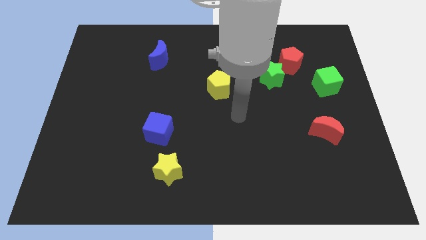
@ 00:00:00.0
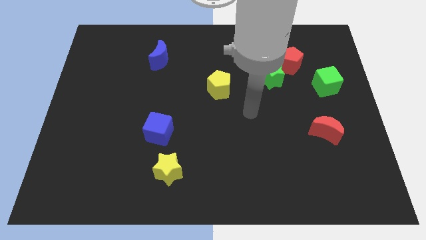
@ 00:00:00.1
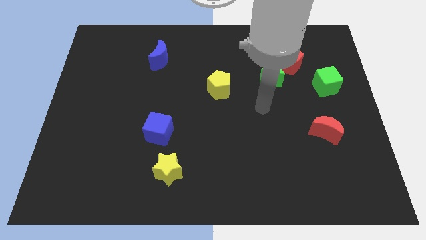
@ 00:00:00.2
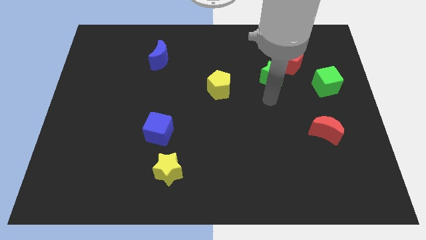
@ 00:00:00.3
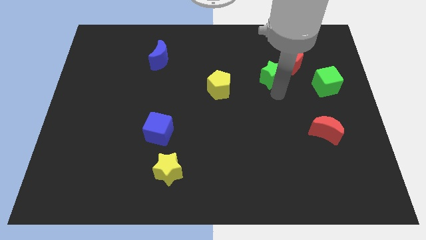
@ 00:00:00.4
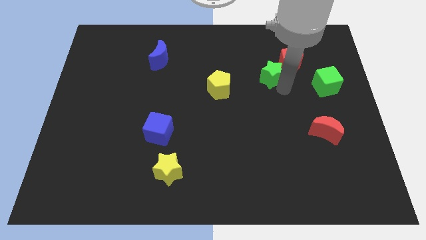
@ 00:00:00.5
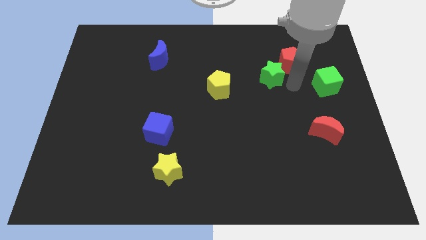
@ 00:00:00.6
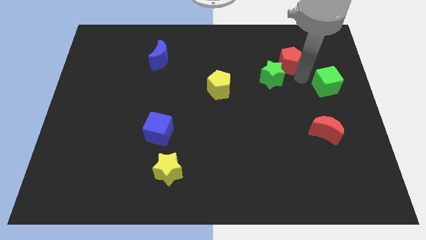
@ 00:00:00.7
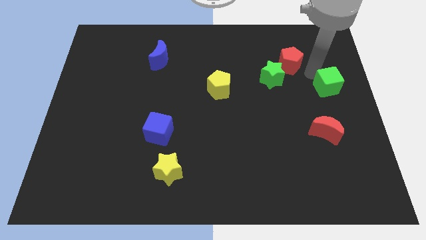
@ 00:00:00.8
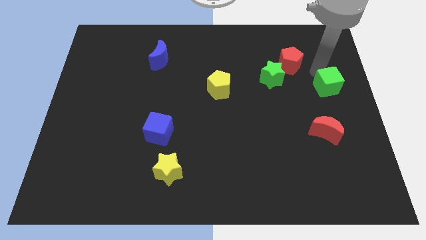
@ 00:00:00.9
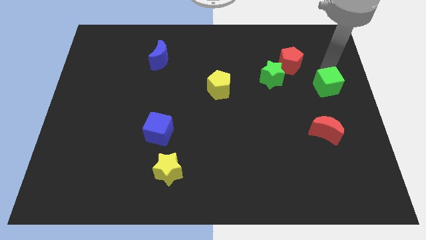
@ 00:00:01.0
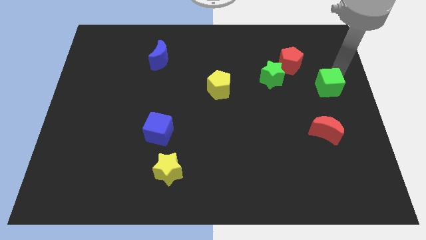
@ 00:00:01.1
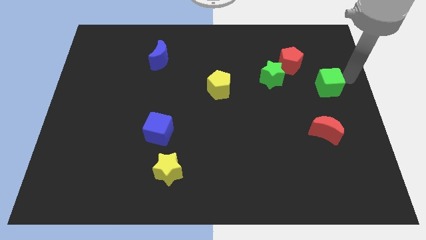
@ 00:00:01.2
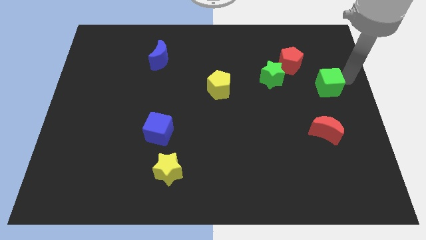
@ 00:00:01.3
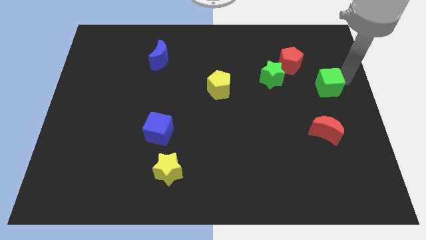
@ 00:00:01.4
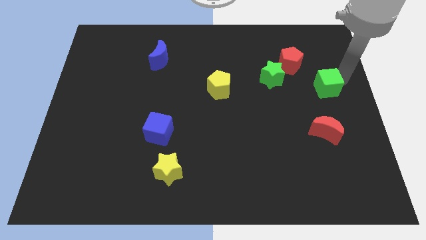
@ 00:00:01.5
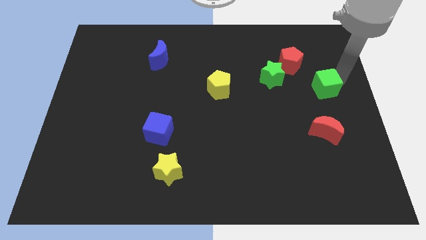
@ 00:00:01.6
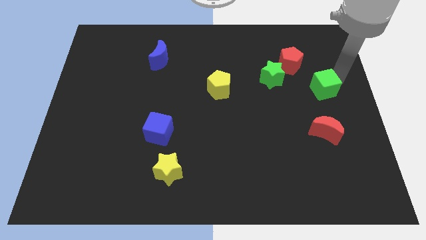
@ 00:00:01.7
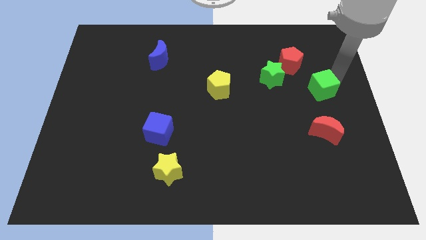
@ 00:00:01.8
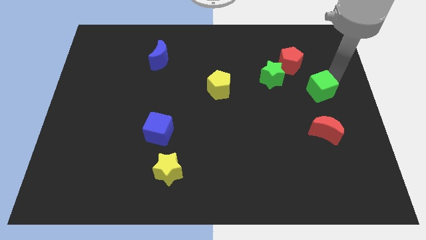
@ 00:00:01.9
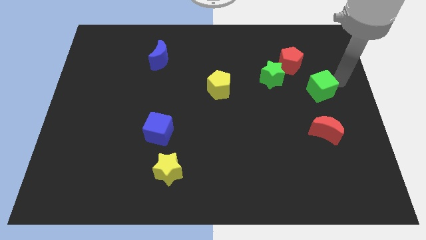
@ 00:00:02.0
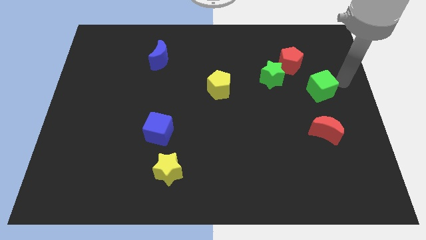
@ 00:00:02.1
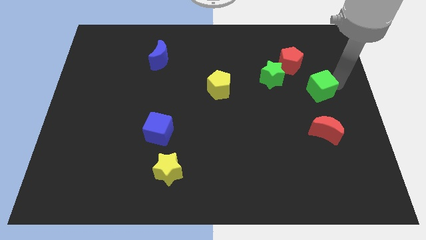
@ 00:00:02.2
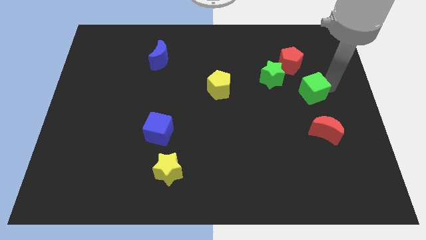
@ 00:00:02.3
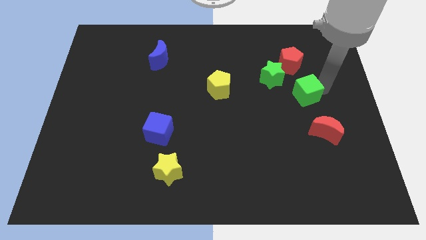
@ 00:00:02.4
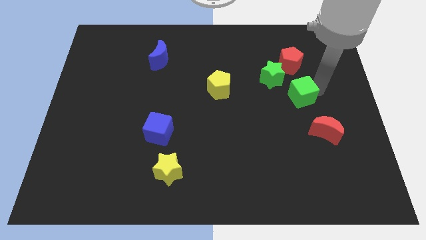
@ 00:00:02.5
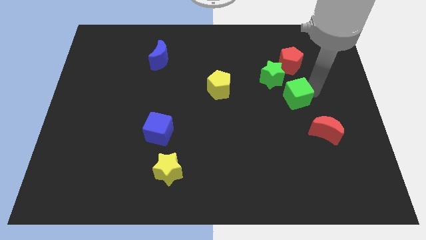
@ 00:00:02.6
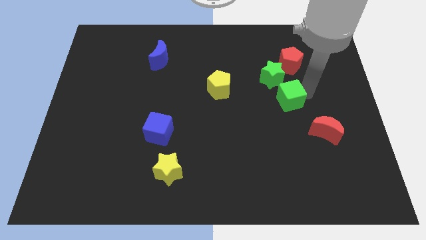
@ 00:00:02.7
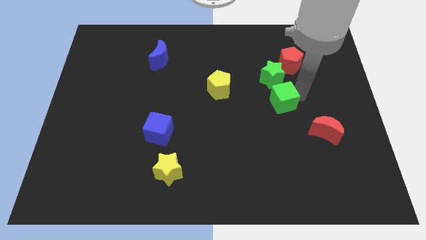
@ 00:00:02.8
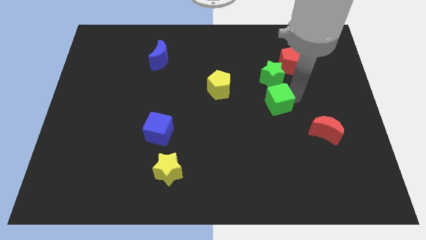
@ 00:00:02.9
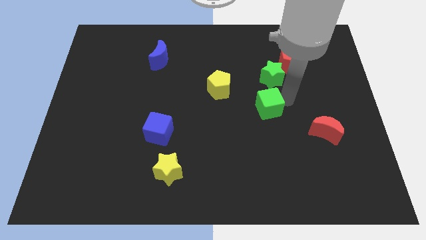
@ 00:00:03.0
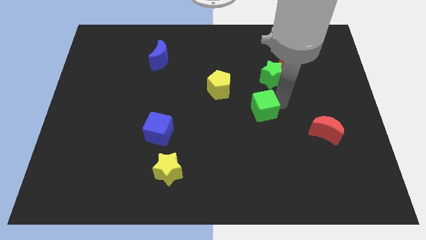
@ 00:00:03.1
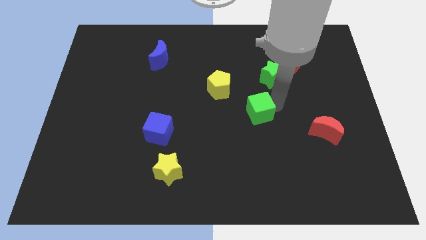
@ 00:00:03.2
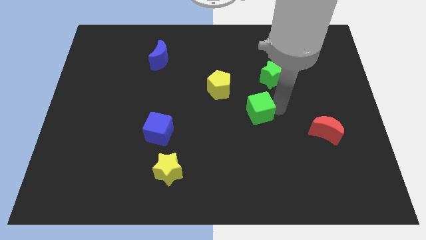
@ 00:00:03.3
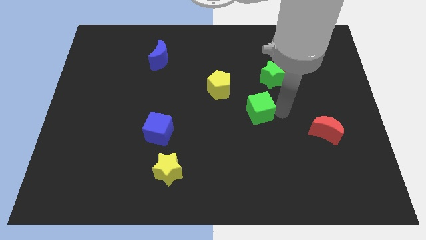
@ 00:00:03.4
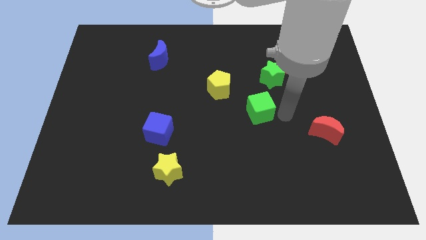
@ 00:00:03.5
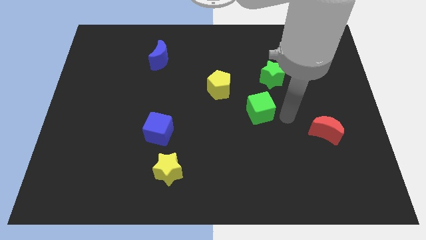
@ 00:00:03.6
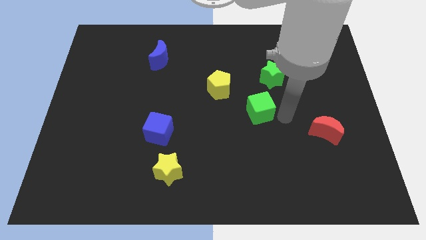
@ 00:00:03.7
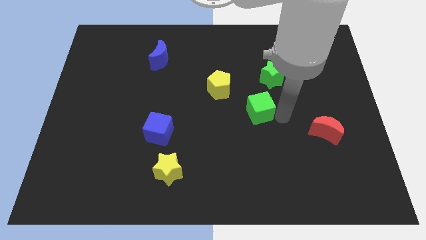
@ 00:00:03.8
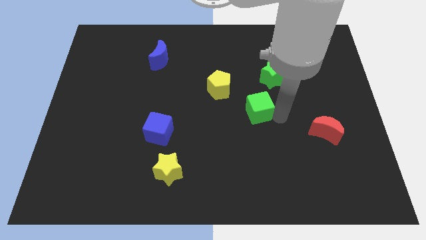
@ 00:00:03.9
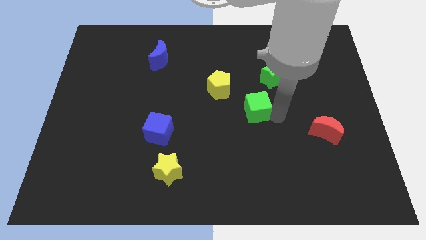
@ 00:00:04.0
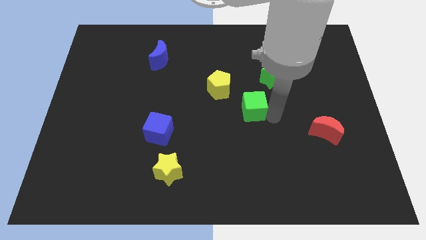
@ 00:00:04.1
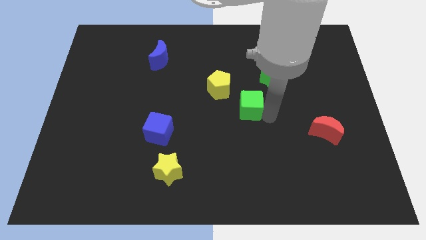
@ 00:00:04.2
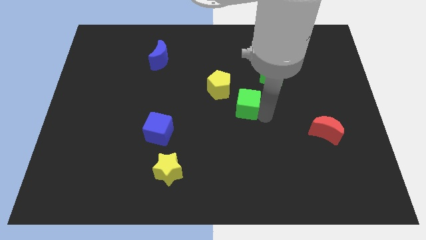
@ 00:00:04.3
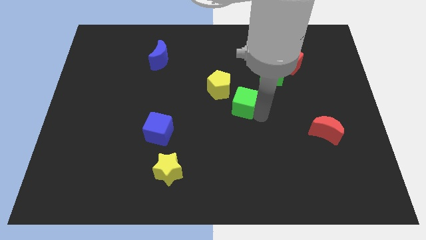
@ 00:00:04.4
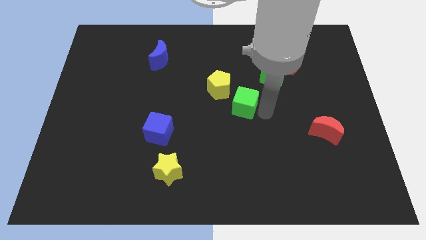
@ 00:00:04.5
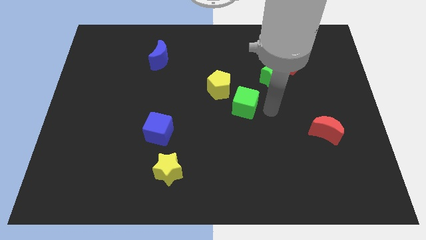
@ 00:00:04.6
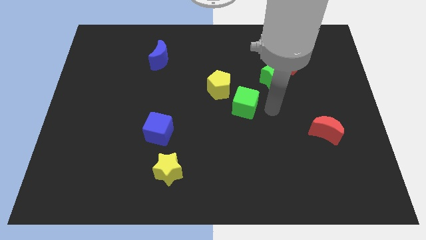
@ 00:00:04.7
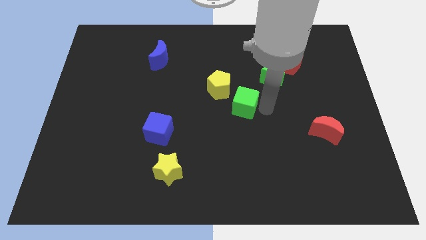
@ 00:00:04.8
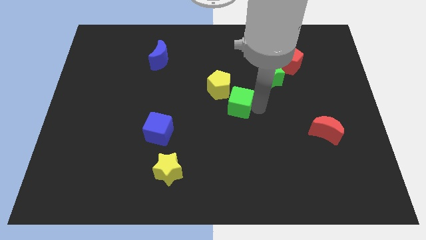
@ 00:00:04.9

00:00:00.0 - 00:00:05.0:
push the green cube to the left

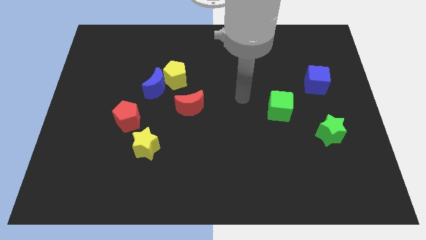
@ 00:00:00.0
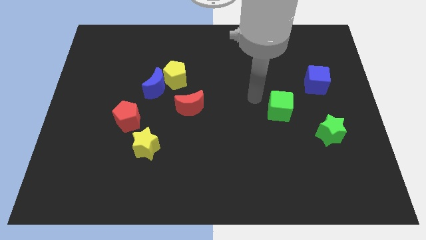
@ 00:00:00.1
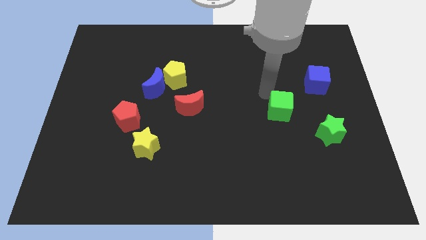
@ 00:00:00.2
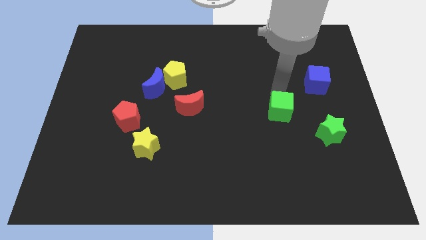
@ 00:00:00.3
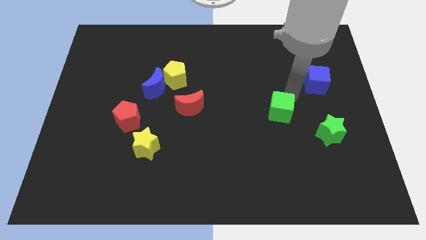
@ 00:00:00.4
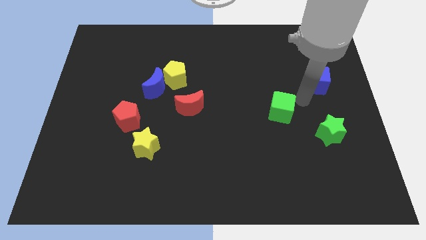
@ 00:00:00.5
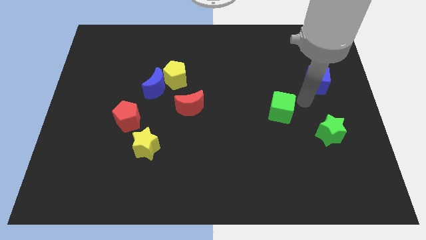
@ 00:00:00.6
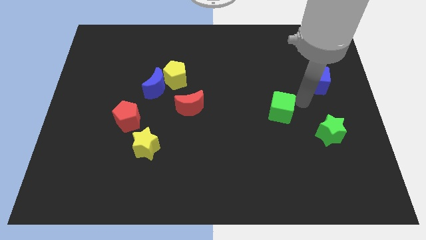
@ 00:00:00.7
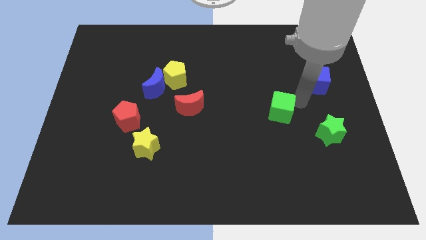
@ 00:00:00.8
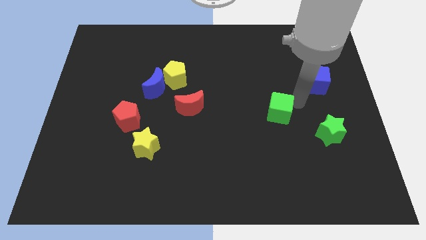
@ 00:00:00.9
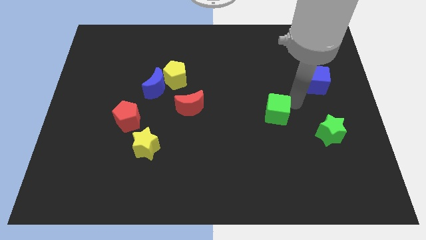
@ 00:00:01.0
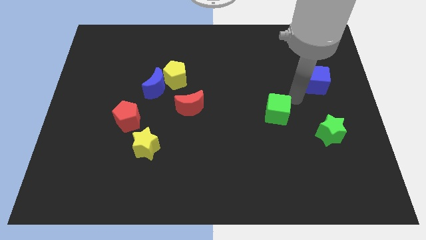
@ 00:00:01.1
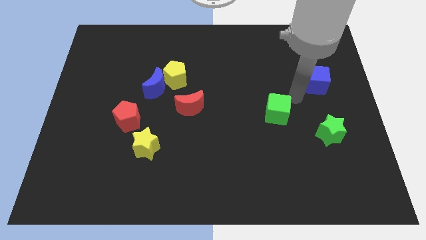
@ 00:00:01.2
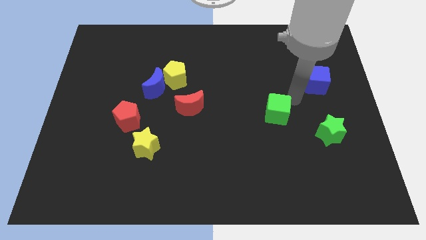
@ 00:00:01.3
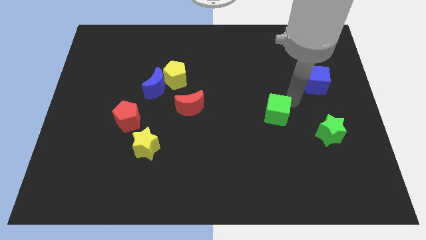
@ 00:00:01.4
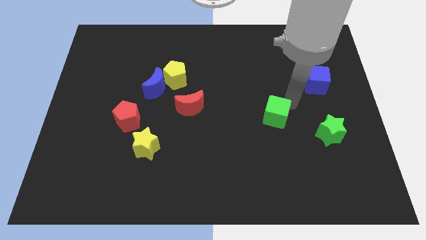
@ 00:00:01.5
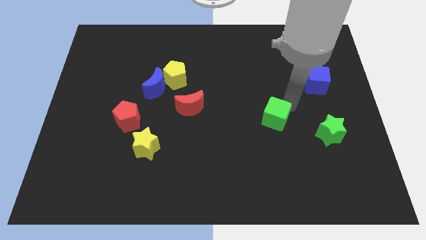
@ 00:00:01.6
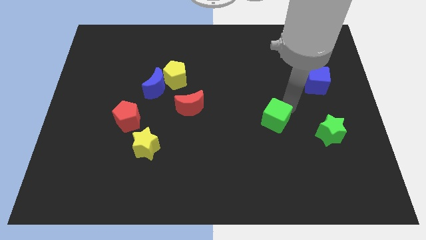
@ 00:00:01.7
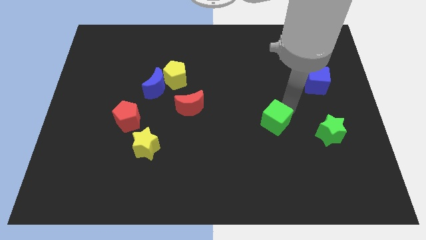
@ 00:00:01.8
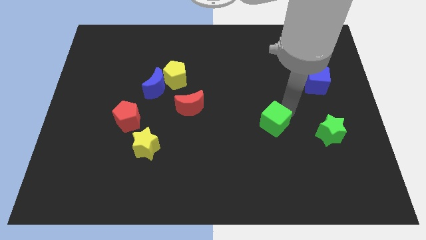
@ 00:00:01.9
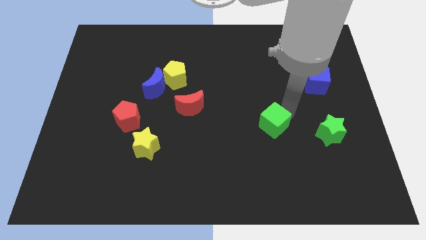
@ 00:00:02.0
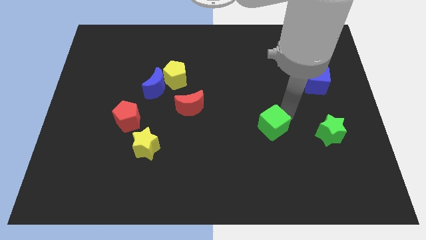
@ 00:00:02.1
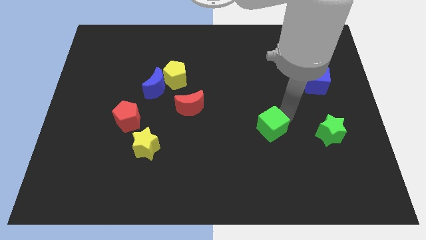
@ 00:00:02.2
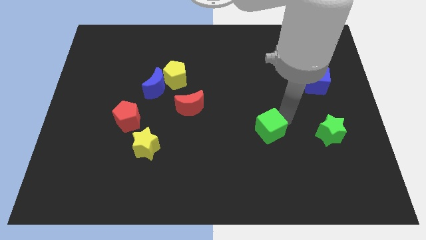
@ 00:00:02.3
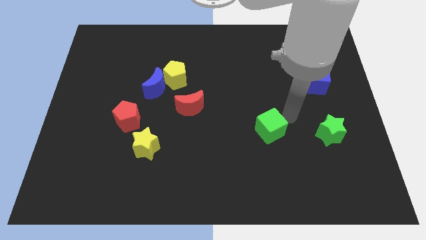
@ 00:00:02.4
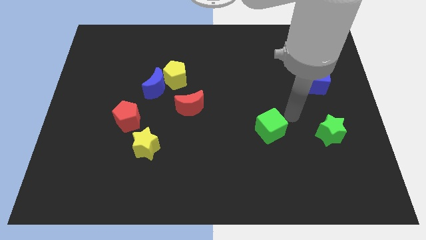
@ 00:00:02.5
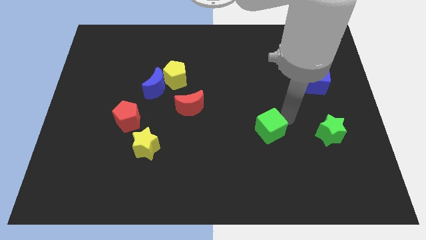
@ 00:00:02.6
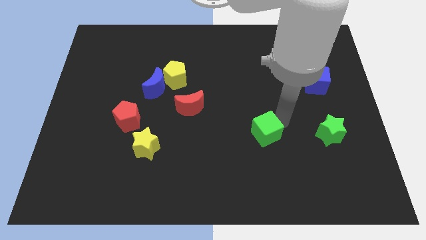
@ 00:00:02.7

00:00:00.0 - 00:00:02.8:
slide the green cube downwards and then to the left slightly
